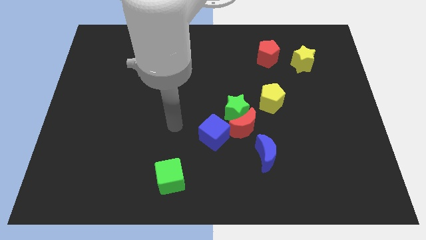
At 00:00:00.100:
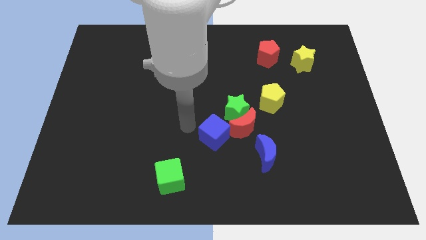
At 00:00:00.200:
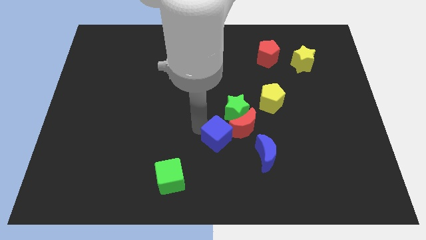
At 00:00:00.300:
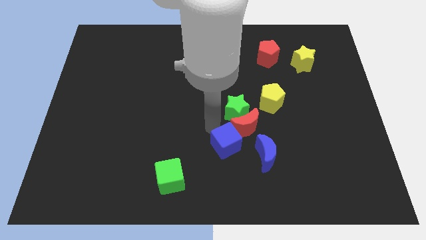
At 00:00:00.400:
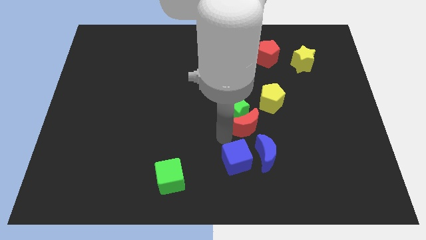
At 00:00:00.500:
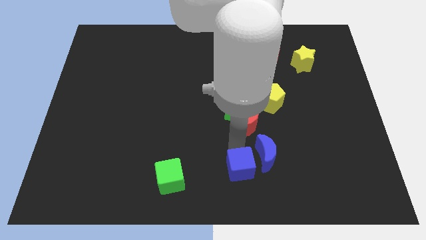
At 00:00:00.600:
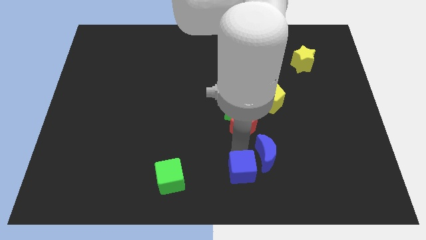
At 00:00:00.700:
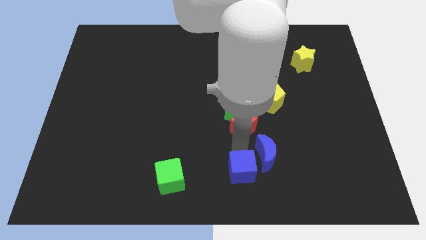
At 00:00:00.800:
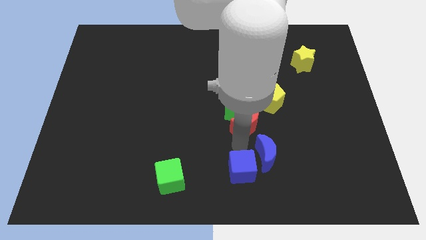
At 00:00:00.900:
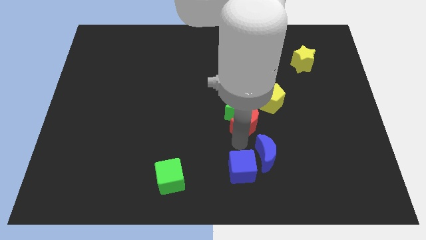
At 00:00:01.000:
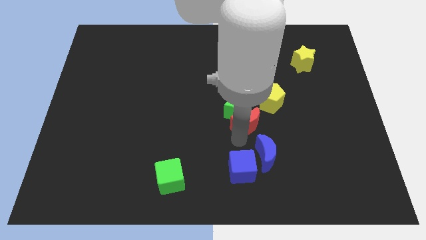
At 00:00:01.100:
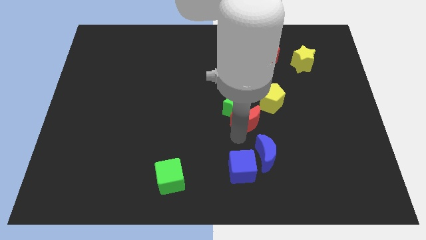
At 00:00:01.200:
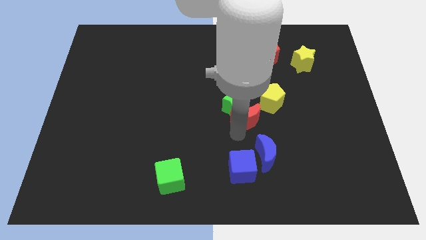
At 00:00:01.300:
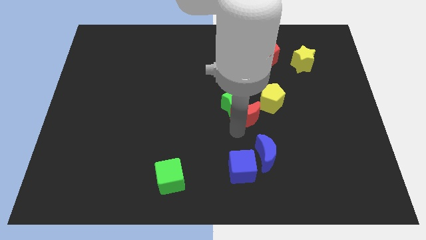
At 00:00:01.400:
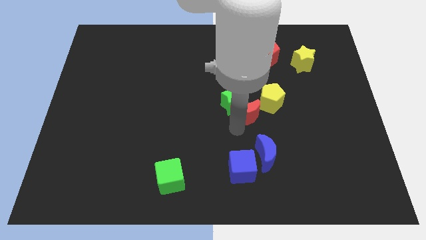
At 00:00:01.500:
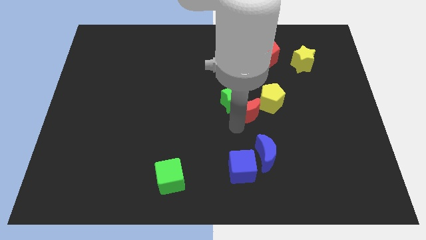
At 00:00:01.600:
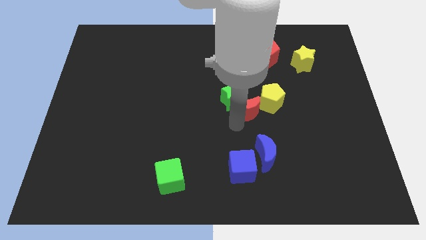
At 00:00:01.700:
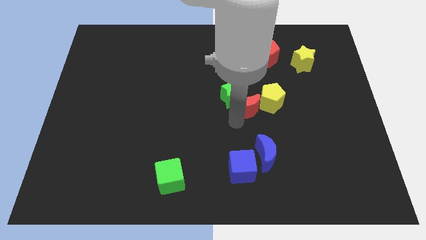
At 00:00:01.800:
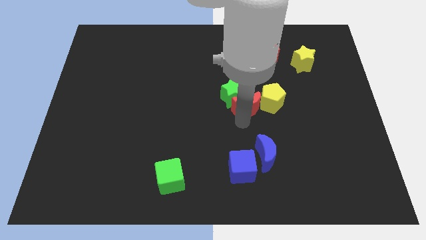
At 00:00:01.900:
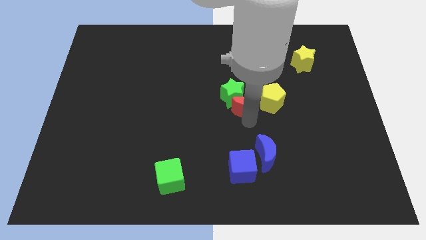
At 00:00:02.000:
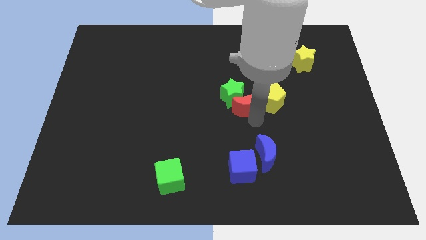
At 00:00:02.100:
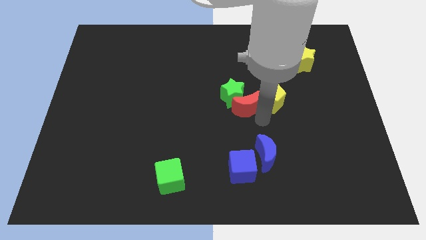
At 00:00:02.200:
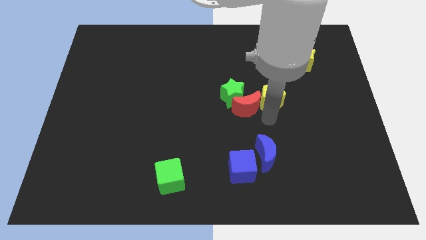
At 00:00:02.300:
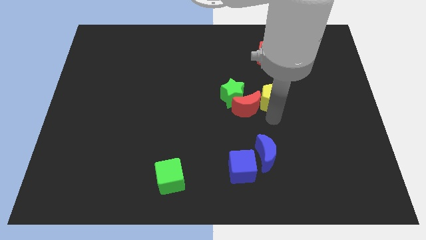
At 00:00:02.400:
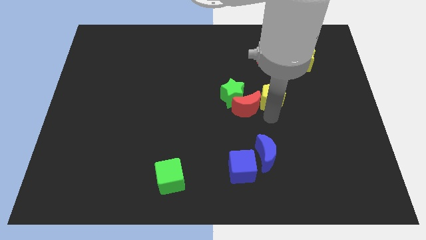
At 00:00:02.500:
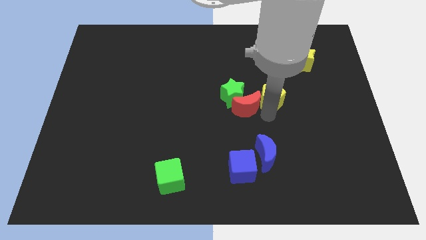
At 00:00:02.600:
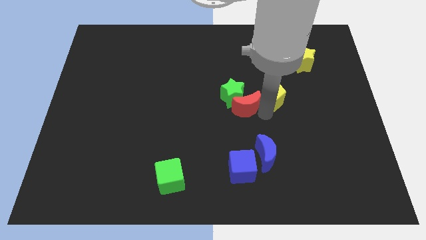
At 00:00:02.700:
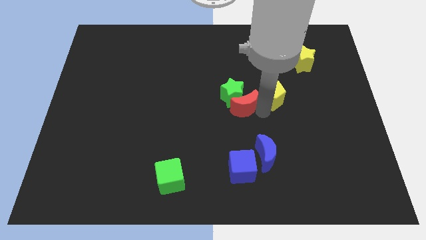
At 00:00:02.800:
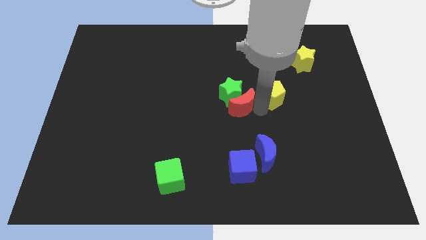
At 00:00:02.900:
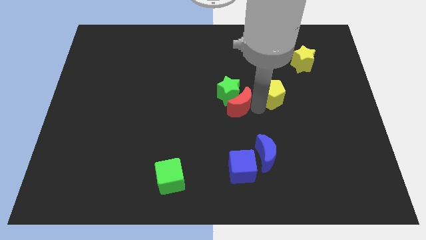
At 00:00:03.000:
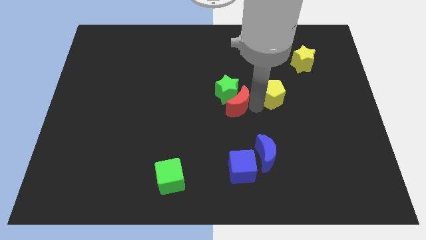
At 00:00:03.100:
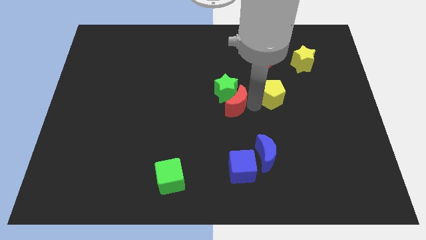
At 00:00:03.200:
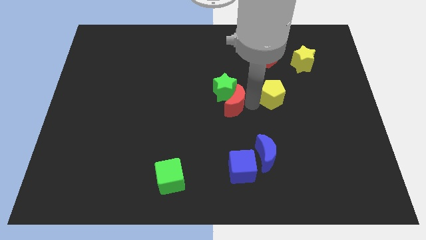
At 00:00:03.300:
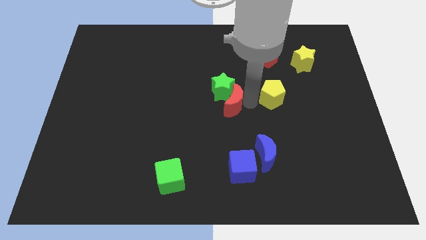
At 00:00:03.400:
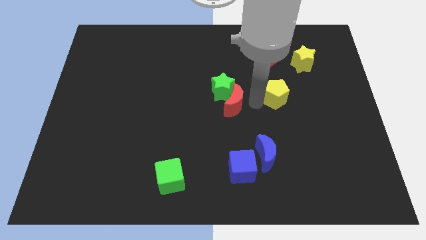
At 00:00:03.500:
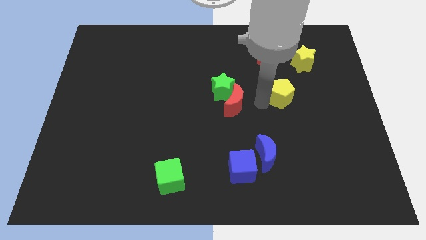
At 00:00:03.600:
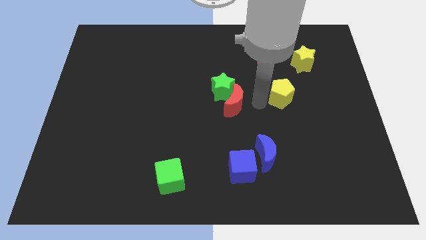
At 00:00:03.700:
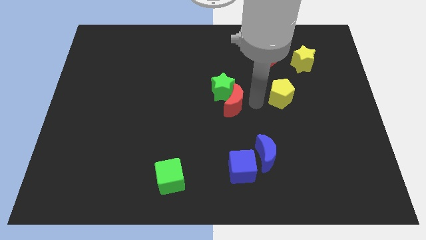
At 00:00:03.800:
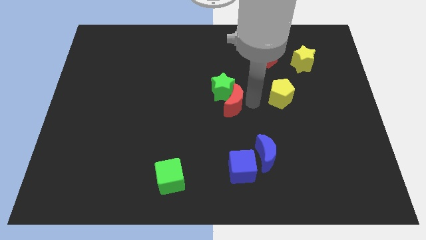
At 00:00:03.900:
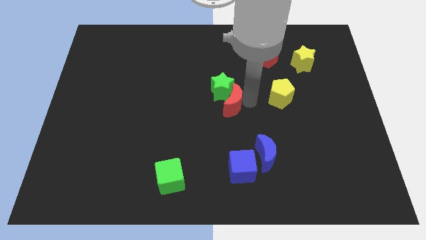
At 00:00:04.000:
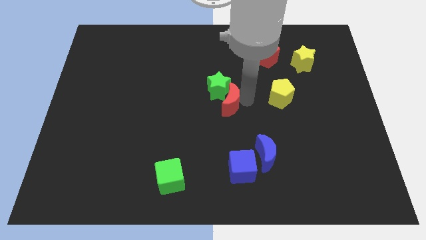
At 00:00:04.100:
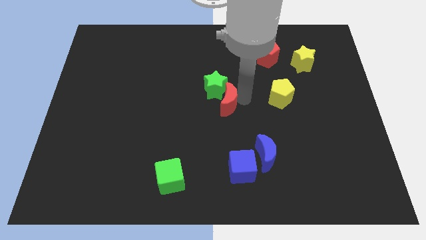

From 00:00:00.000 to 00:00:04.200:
move the red moon slightly upwards and left diagonally

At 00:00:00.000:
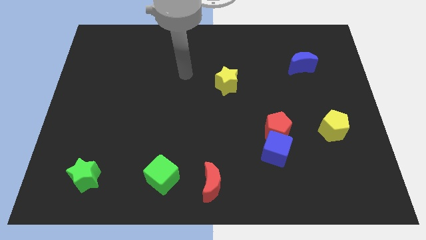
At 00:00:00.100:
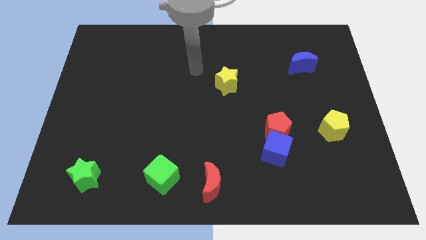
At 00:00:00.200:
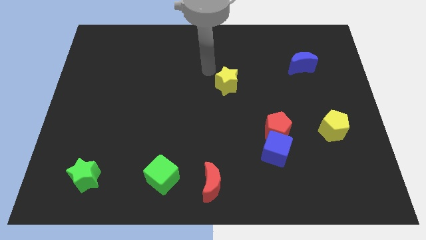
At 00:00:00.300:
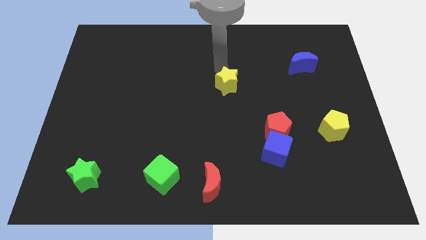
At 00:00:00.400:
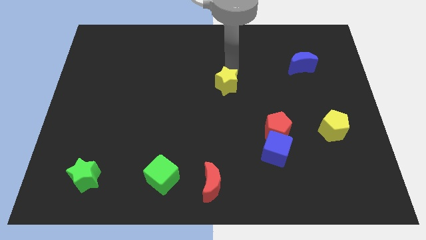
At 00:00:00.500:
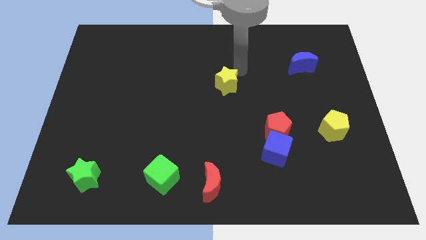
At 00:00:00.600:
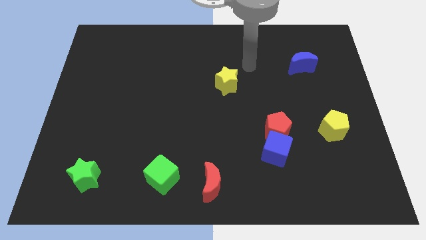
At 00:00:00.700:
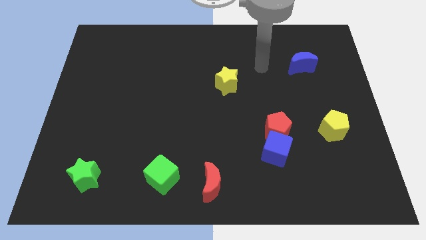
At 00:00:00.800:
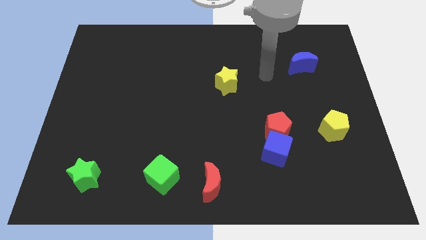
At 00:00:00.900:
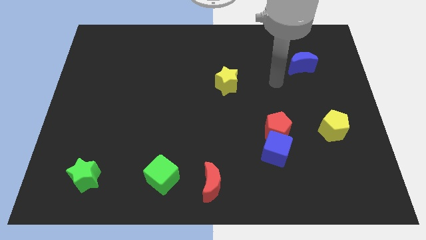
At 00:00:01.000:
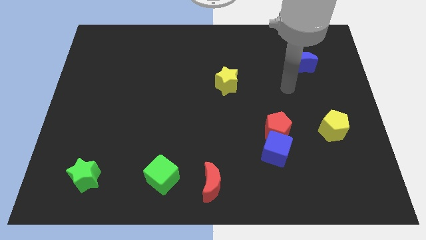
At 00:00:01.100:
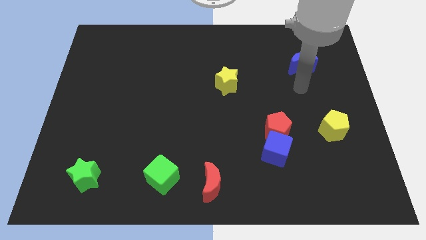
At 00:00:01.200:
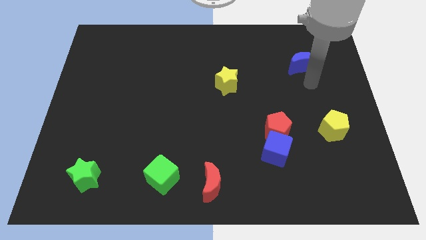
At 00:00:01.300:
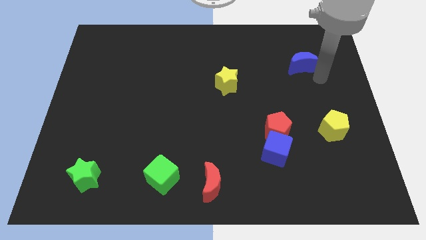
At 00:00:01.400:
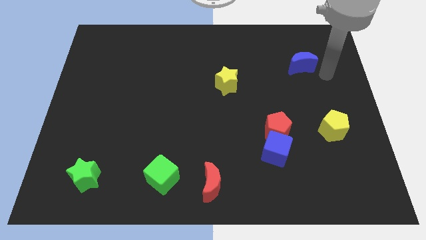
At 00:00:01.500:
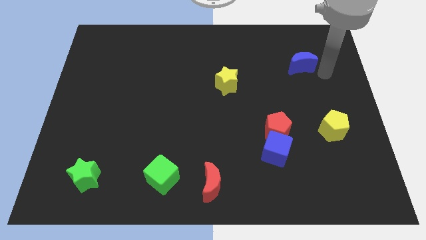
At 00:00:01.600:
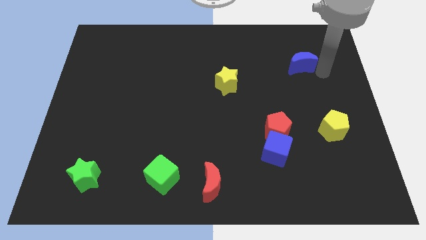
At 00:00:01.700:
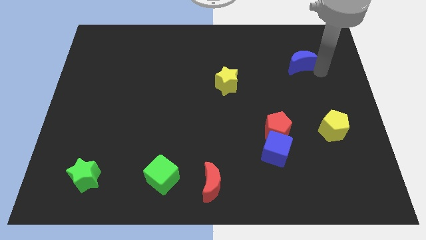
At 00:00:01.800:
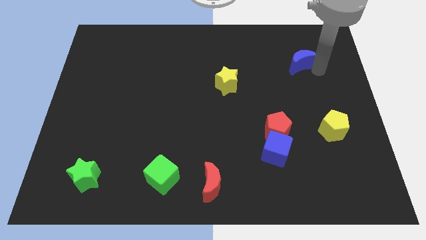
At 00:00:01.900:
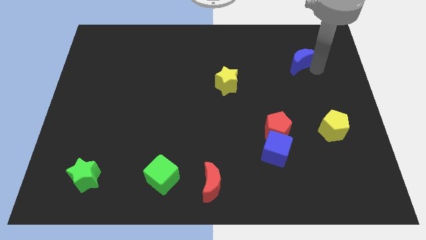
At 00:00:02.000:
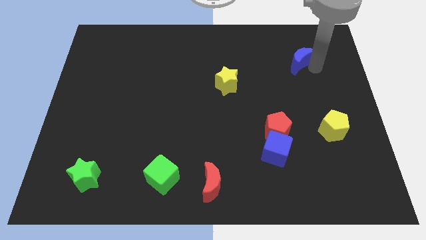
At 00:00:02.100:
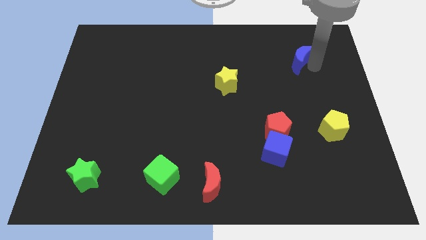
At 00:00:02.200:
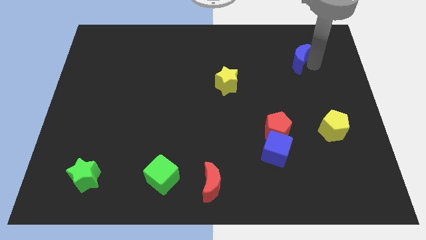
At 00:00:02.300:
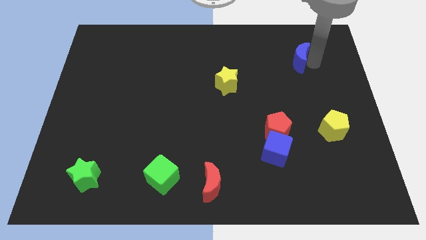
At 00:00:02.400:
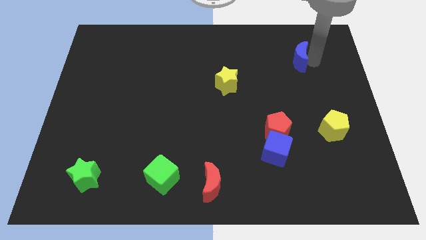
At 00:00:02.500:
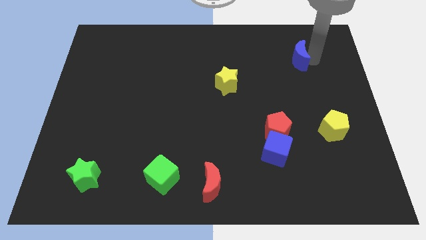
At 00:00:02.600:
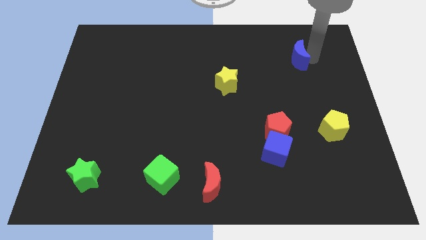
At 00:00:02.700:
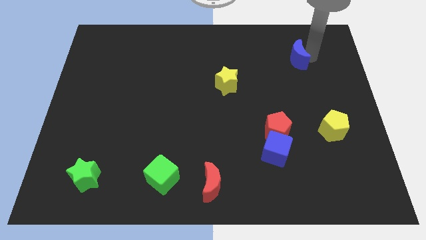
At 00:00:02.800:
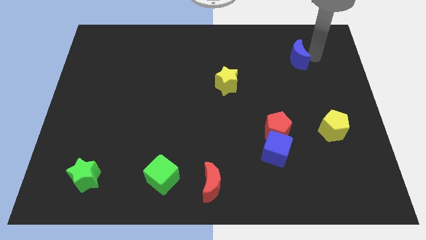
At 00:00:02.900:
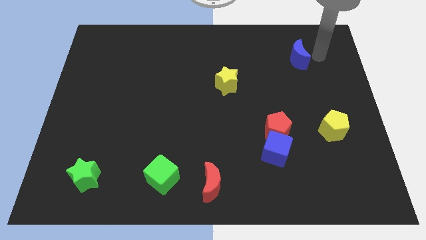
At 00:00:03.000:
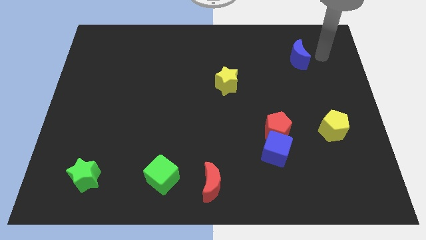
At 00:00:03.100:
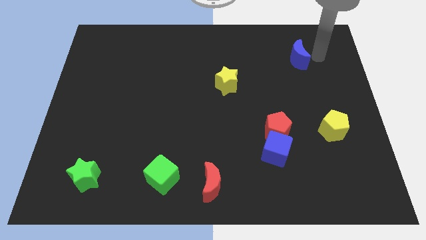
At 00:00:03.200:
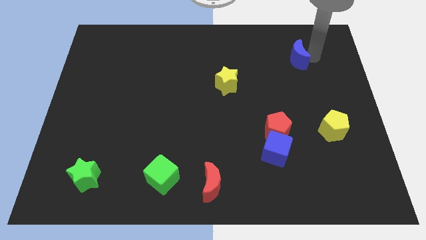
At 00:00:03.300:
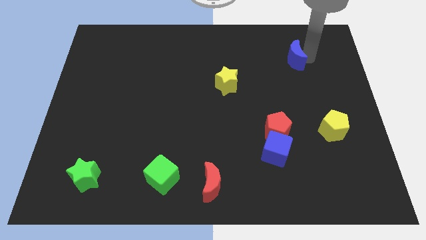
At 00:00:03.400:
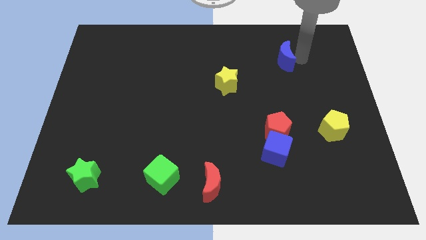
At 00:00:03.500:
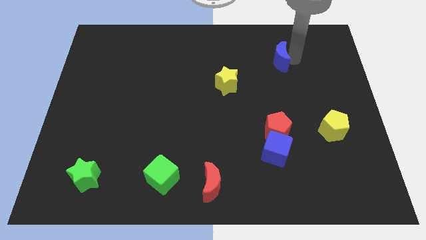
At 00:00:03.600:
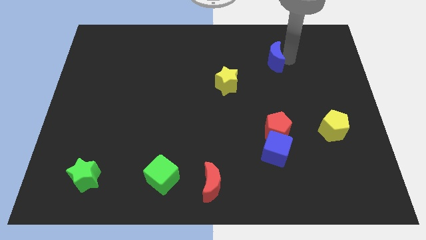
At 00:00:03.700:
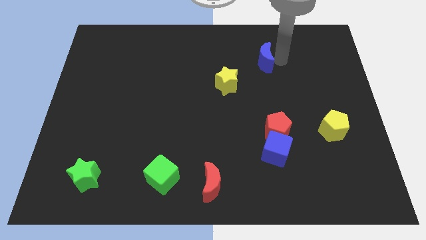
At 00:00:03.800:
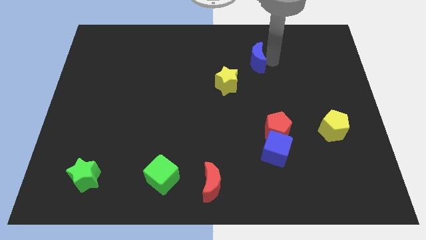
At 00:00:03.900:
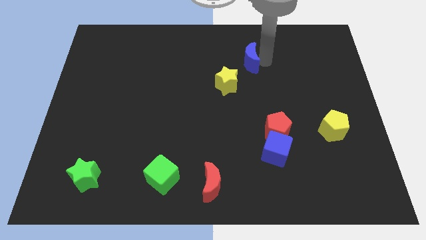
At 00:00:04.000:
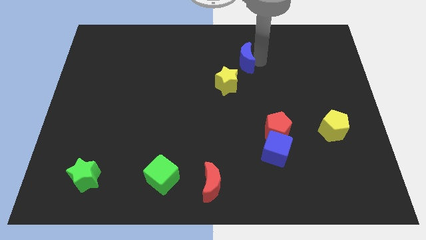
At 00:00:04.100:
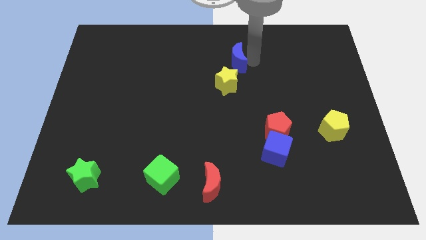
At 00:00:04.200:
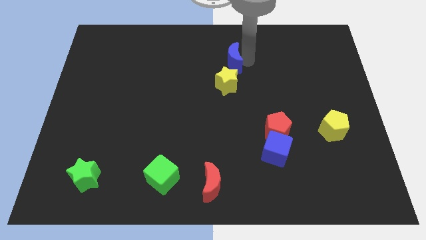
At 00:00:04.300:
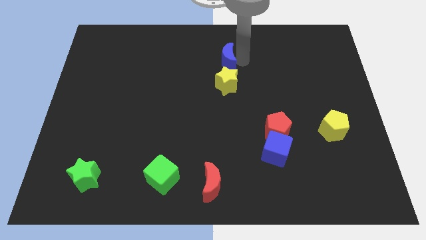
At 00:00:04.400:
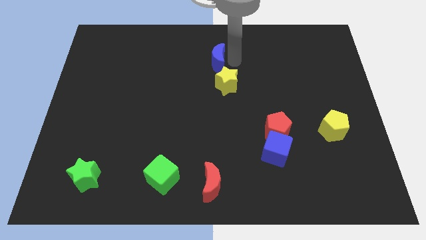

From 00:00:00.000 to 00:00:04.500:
move the blue moon to the left
